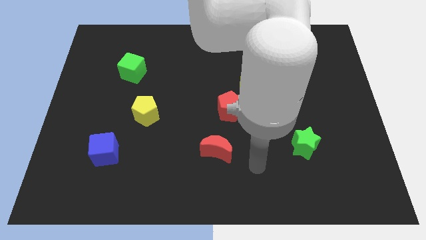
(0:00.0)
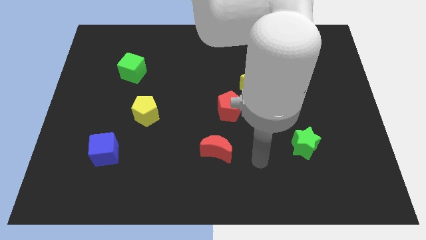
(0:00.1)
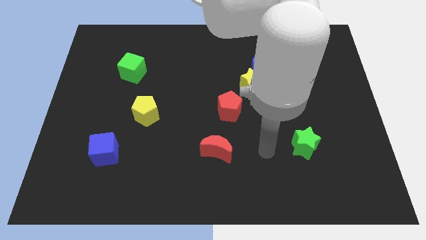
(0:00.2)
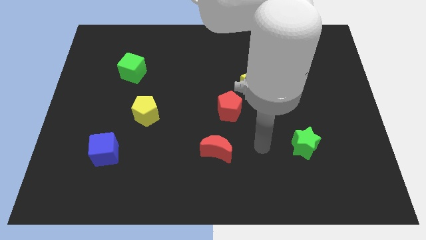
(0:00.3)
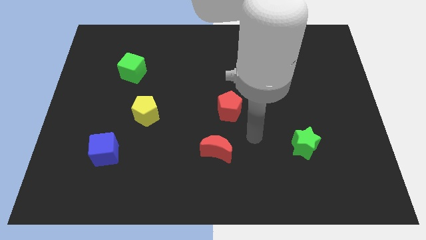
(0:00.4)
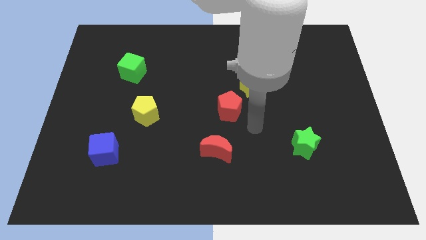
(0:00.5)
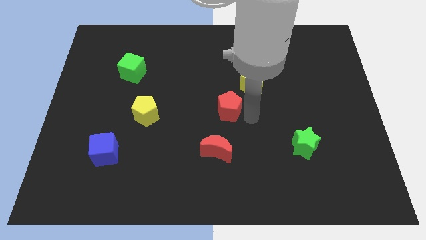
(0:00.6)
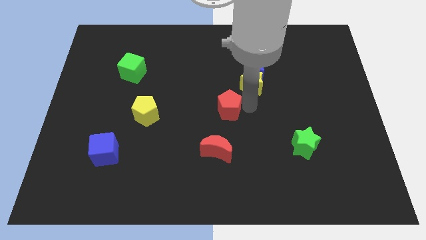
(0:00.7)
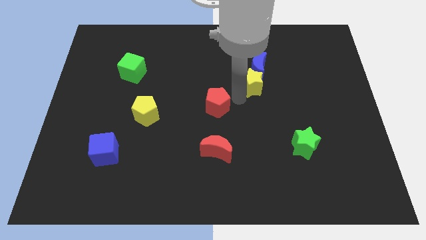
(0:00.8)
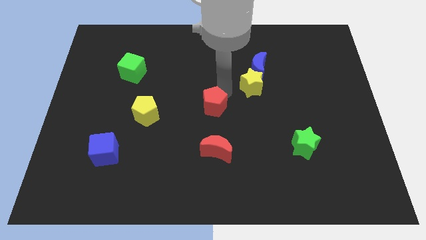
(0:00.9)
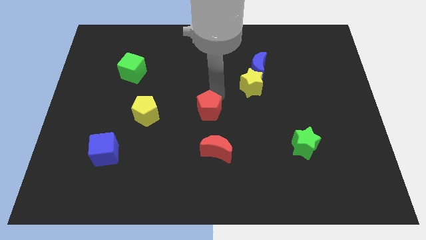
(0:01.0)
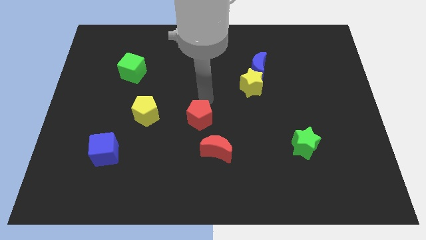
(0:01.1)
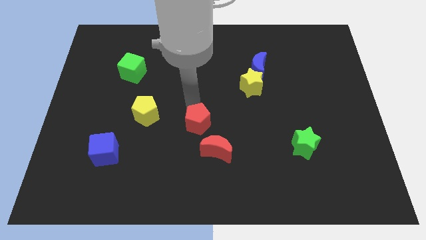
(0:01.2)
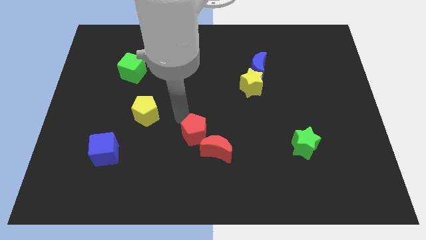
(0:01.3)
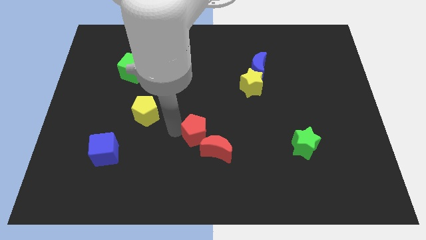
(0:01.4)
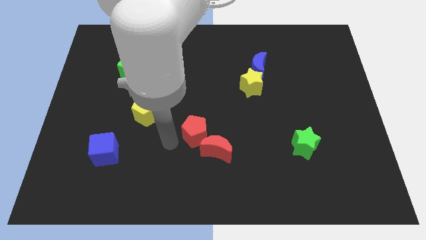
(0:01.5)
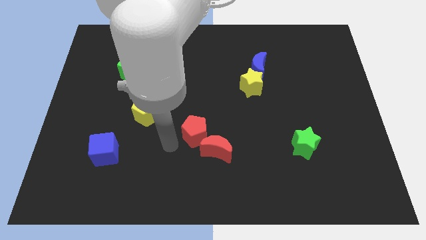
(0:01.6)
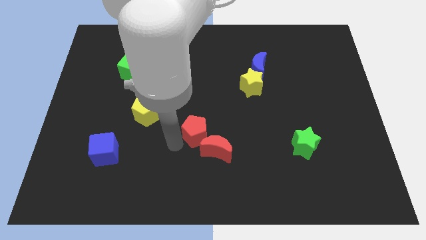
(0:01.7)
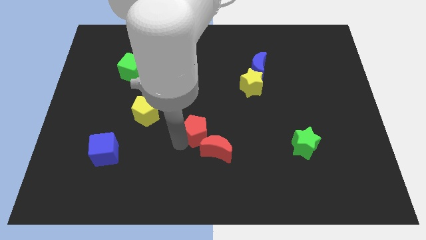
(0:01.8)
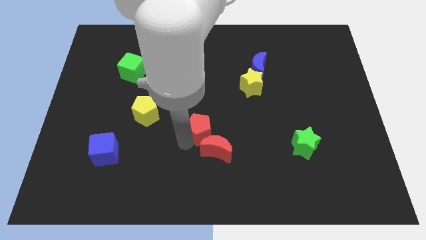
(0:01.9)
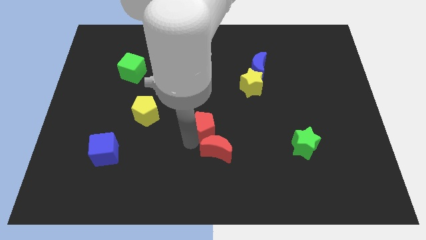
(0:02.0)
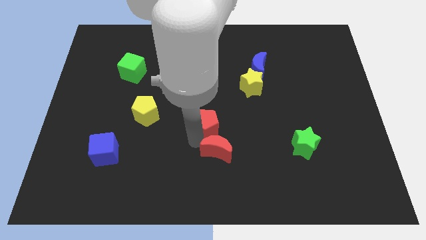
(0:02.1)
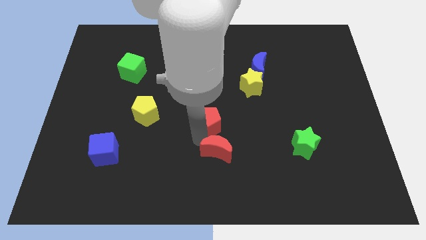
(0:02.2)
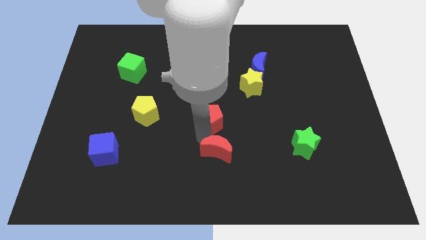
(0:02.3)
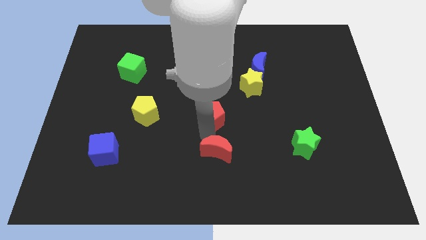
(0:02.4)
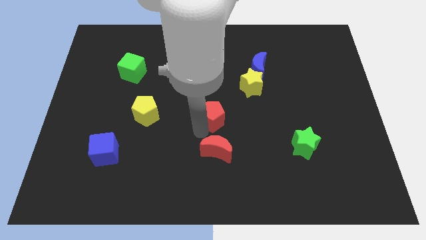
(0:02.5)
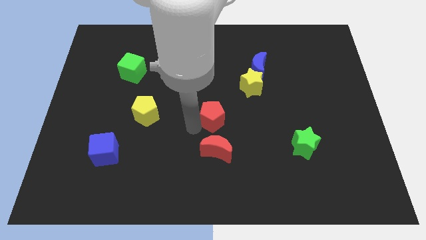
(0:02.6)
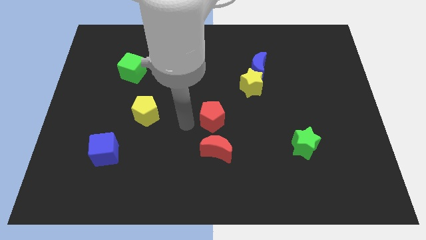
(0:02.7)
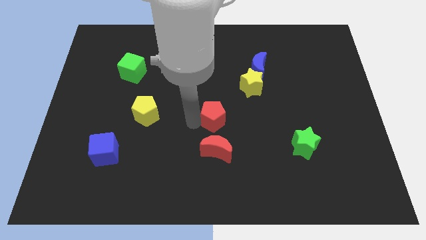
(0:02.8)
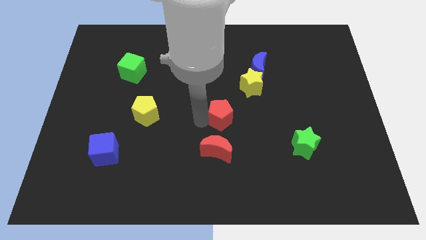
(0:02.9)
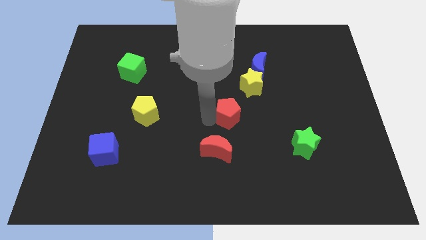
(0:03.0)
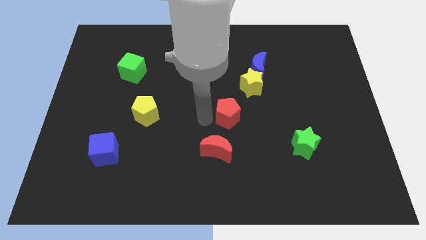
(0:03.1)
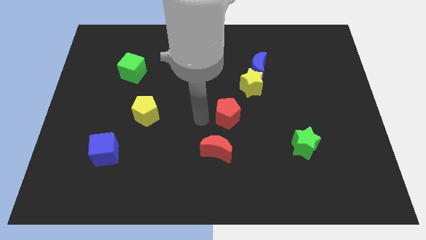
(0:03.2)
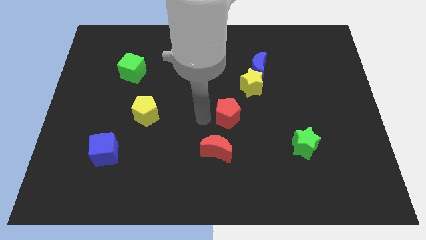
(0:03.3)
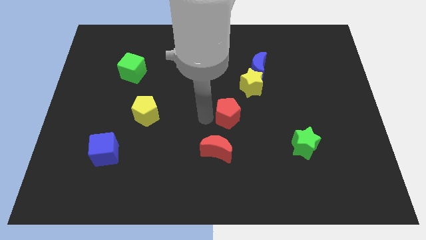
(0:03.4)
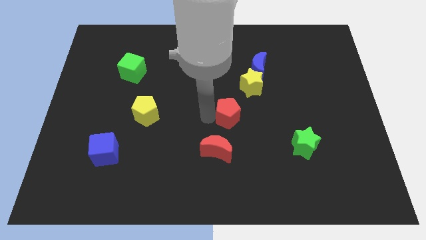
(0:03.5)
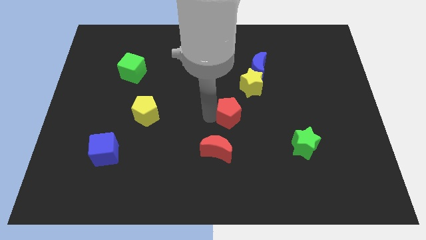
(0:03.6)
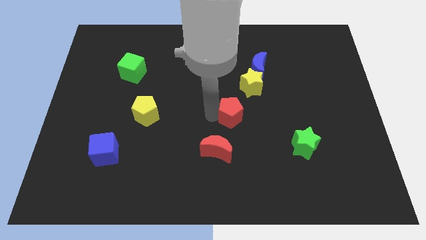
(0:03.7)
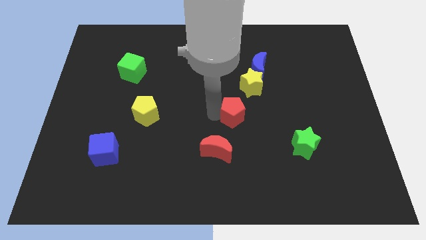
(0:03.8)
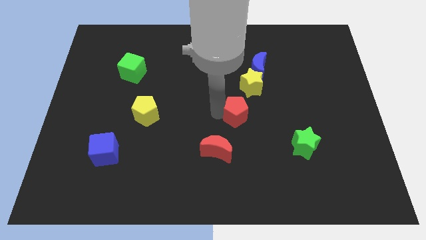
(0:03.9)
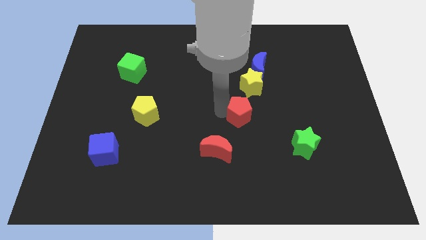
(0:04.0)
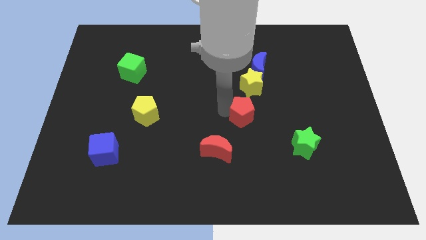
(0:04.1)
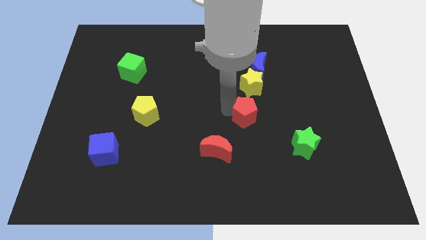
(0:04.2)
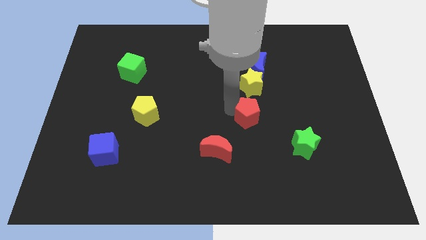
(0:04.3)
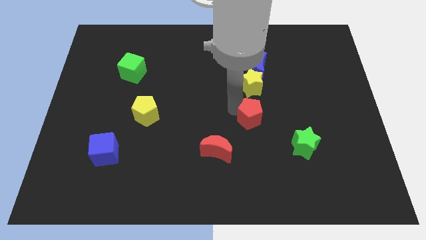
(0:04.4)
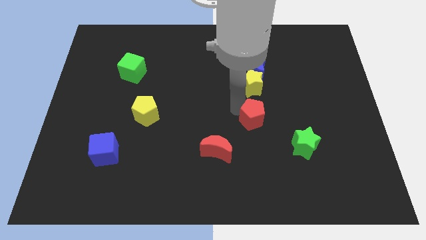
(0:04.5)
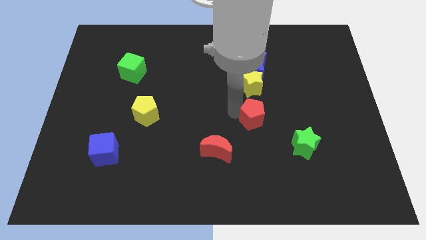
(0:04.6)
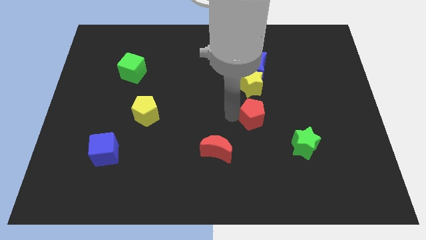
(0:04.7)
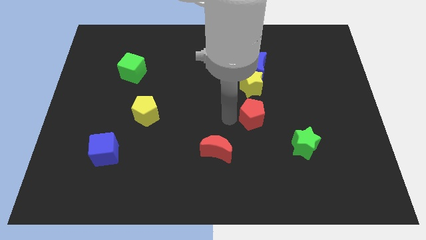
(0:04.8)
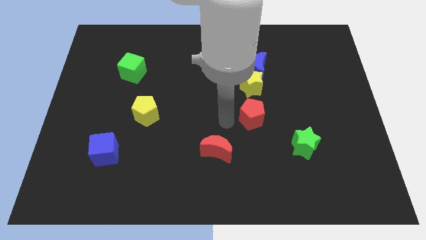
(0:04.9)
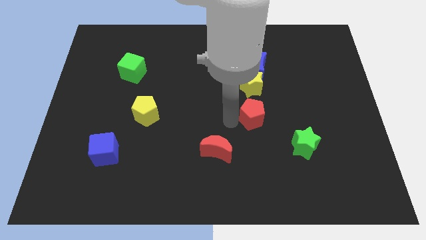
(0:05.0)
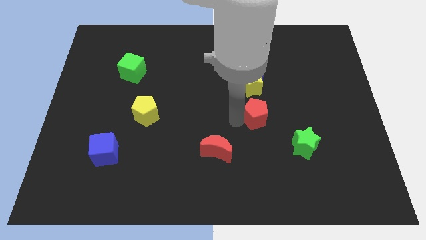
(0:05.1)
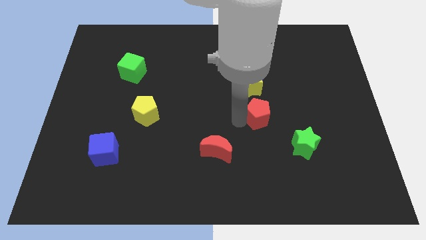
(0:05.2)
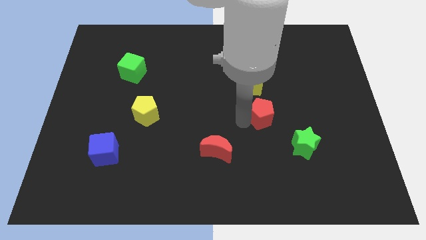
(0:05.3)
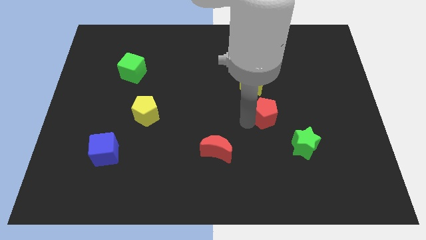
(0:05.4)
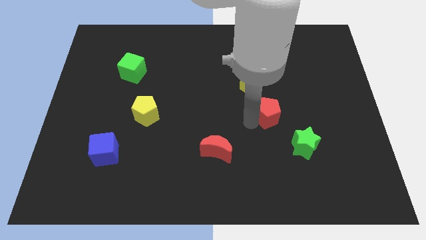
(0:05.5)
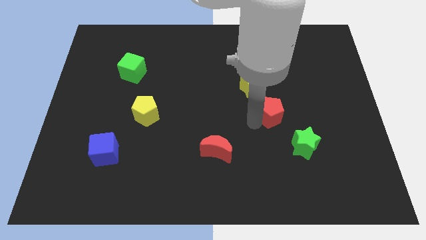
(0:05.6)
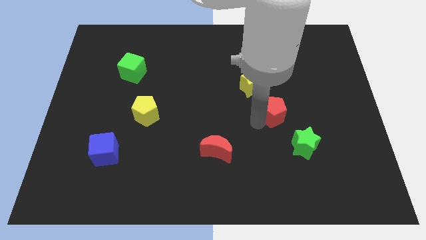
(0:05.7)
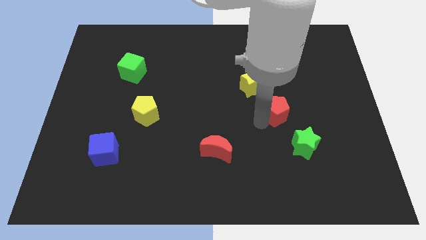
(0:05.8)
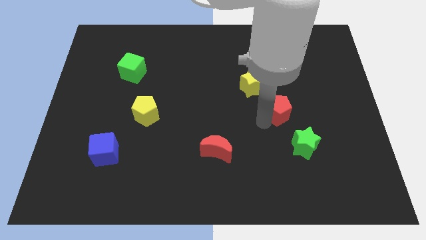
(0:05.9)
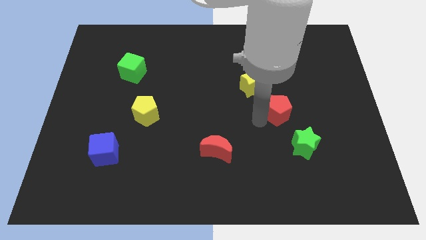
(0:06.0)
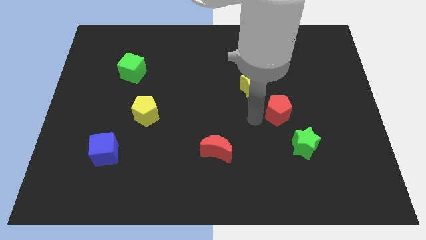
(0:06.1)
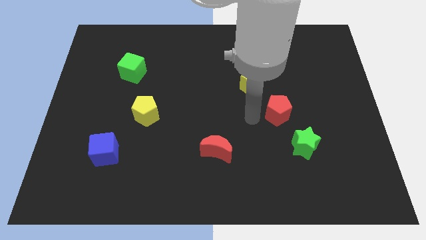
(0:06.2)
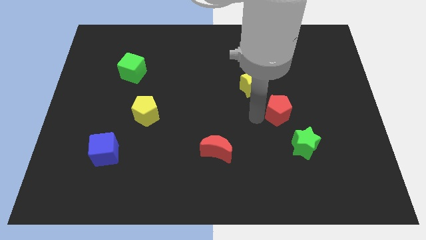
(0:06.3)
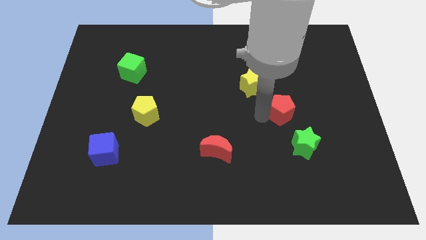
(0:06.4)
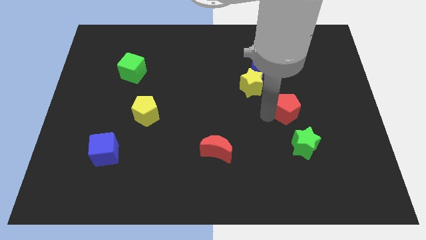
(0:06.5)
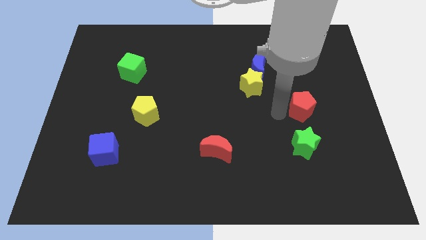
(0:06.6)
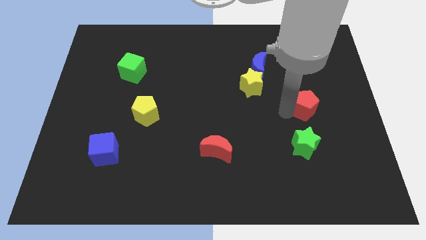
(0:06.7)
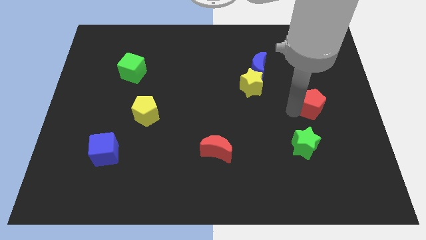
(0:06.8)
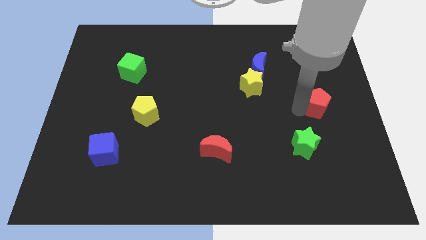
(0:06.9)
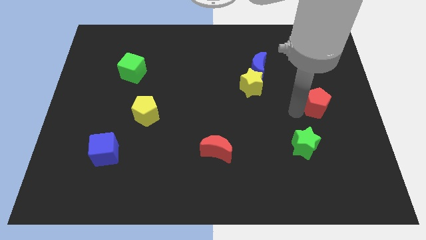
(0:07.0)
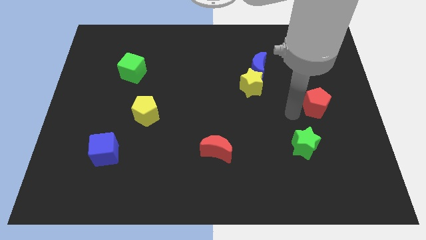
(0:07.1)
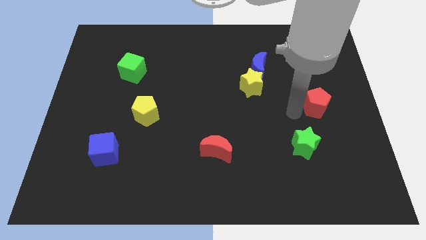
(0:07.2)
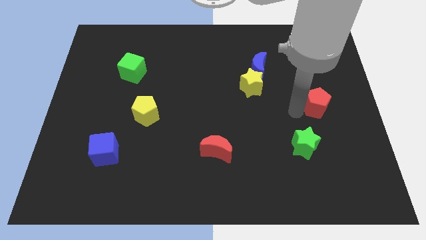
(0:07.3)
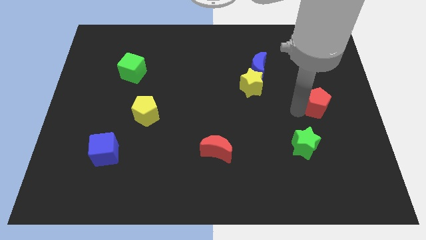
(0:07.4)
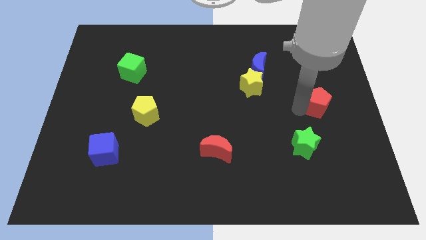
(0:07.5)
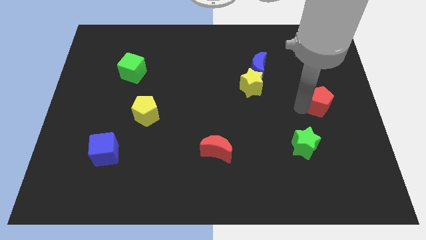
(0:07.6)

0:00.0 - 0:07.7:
slide the red pentagon to the right side
